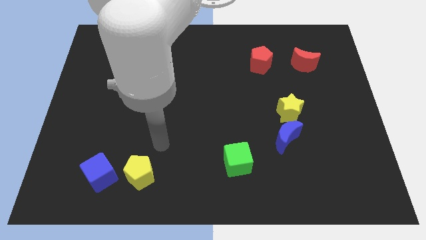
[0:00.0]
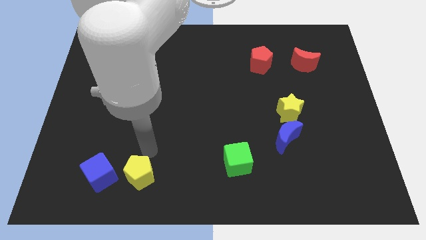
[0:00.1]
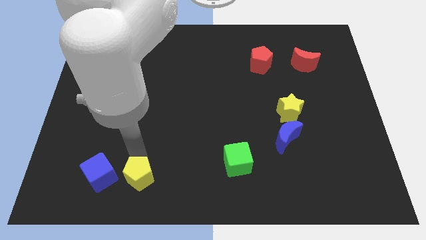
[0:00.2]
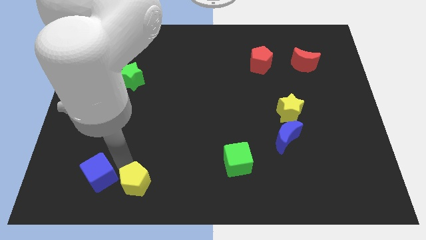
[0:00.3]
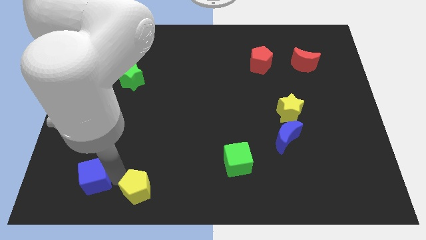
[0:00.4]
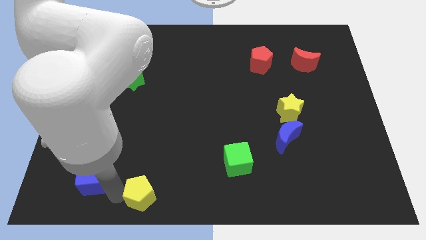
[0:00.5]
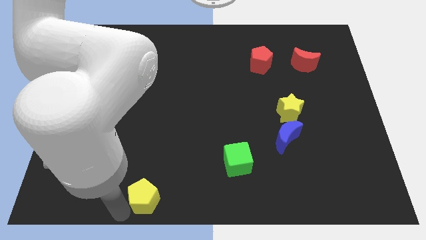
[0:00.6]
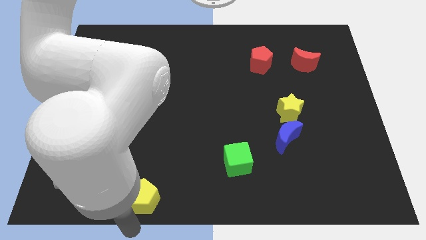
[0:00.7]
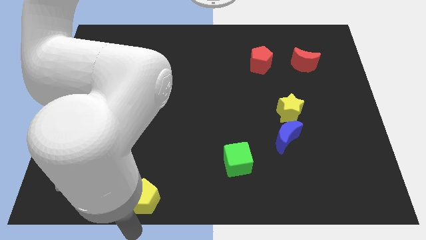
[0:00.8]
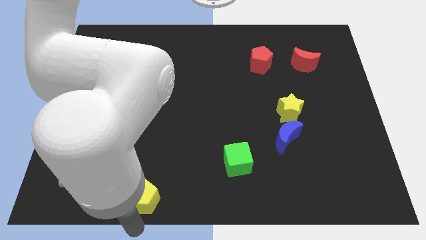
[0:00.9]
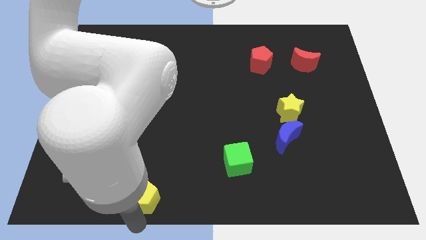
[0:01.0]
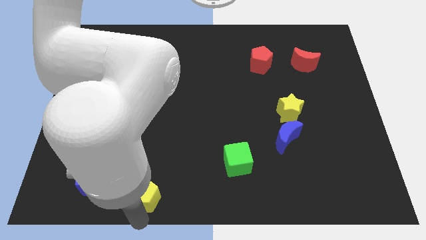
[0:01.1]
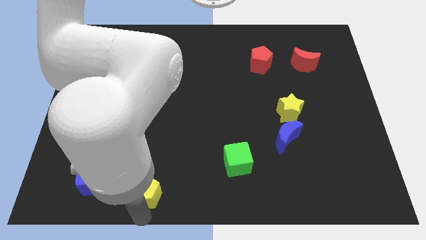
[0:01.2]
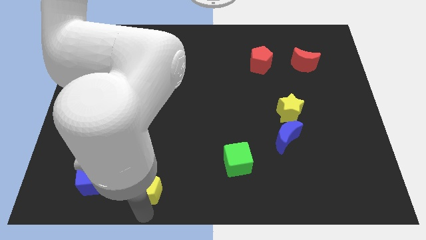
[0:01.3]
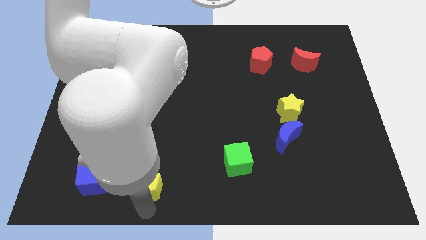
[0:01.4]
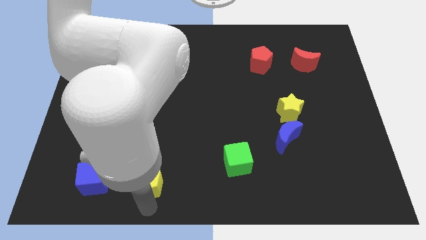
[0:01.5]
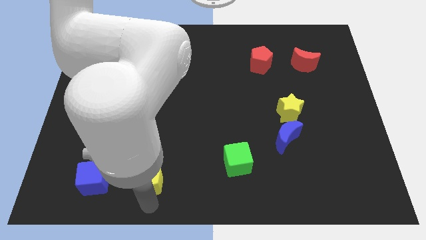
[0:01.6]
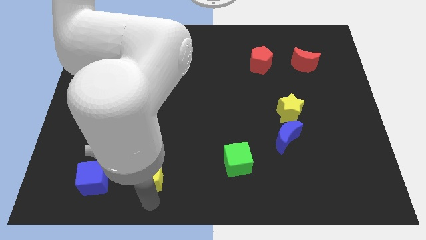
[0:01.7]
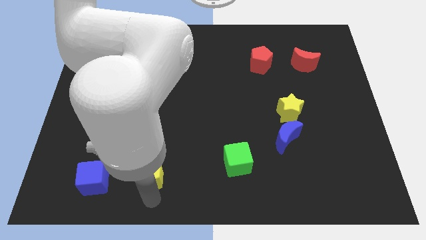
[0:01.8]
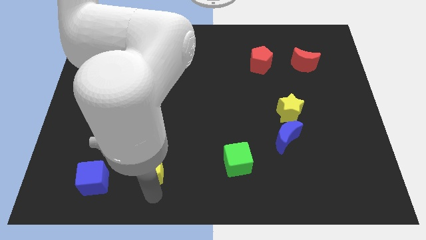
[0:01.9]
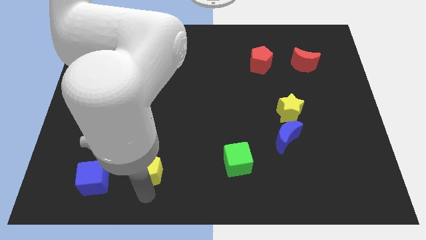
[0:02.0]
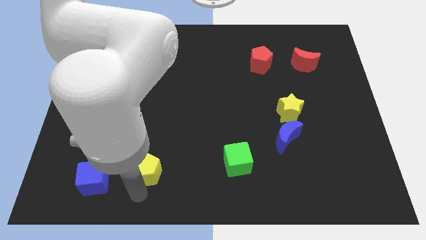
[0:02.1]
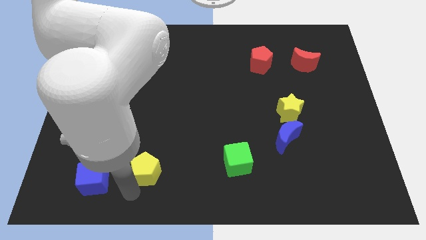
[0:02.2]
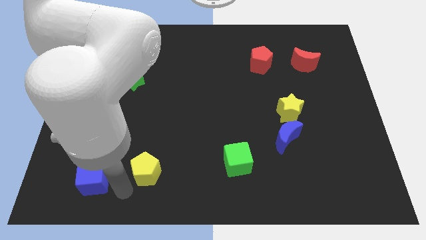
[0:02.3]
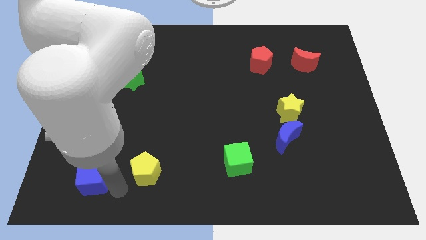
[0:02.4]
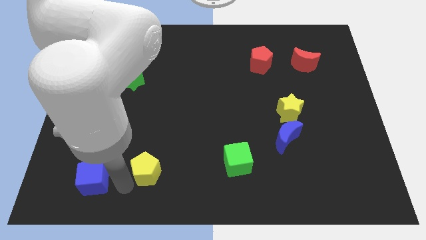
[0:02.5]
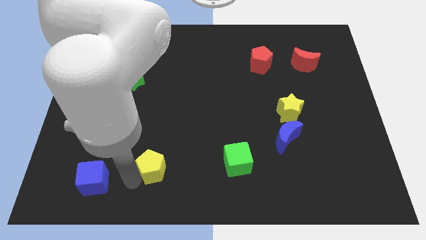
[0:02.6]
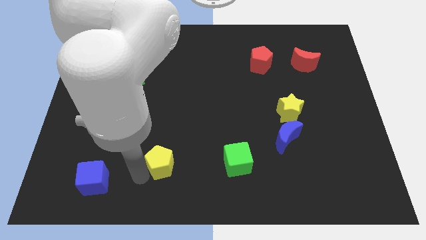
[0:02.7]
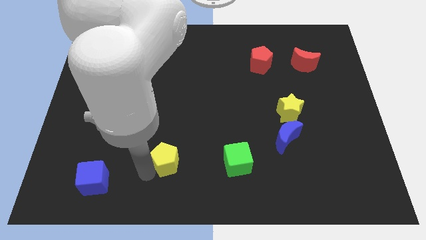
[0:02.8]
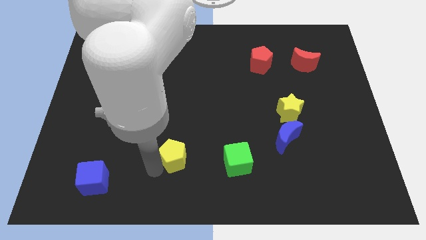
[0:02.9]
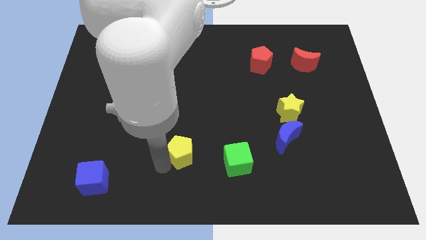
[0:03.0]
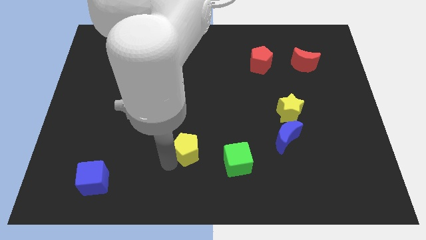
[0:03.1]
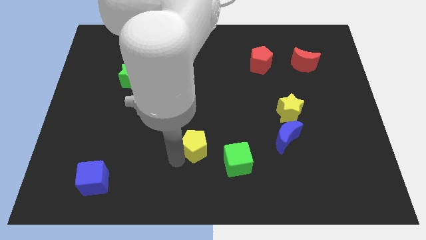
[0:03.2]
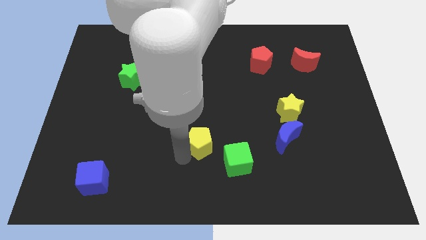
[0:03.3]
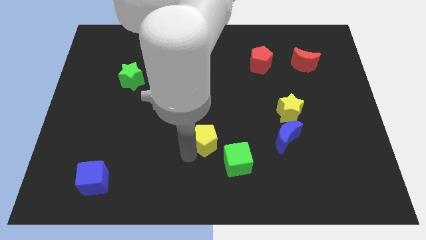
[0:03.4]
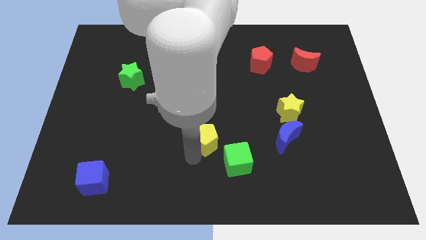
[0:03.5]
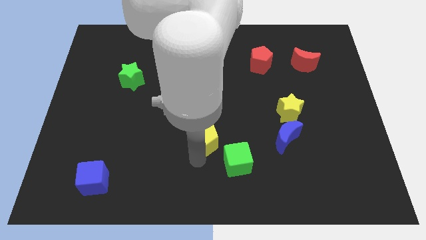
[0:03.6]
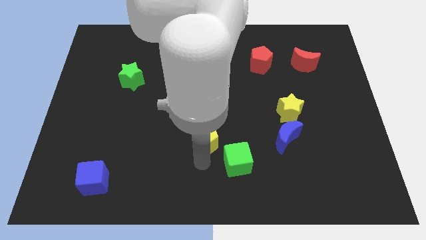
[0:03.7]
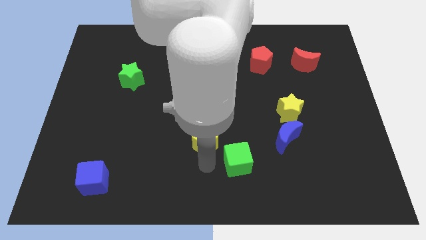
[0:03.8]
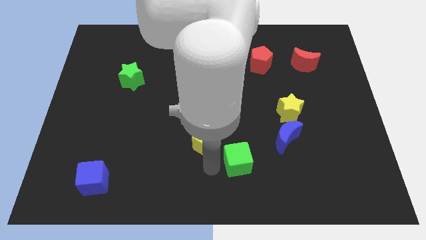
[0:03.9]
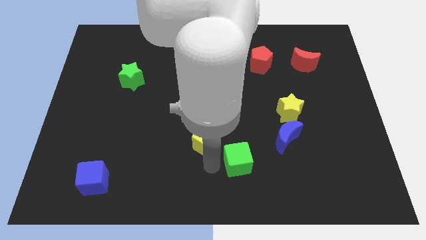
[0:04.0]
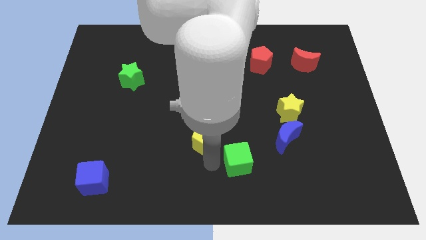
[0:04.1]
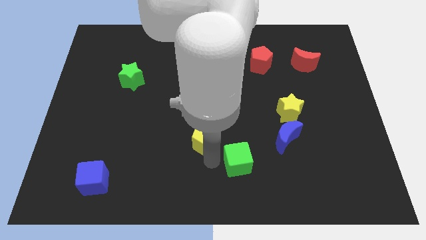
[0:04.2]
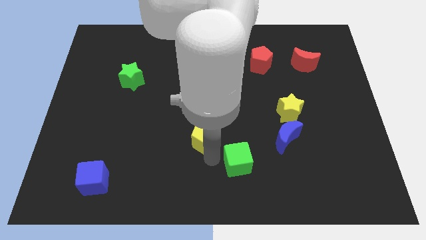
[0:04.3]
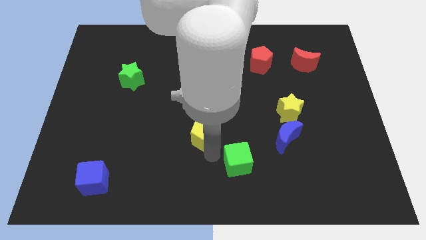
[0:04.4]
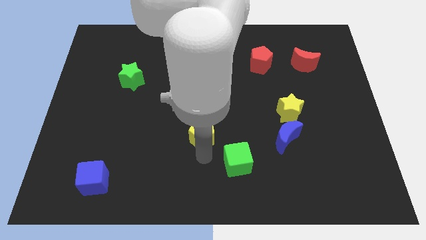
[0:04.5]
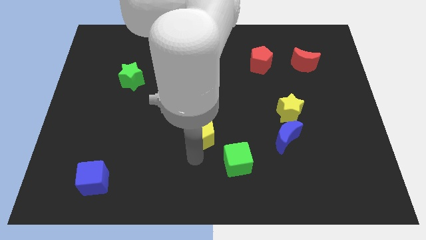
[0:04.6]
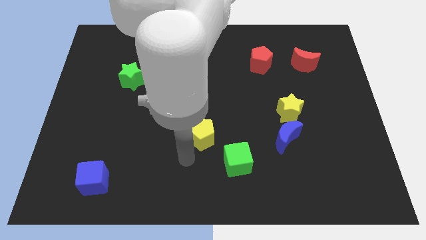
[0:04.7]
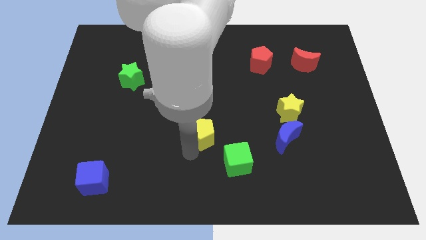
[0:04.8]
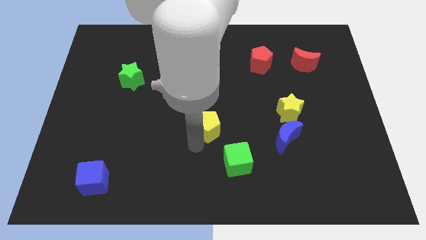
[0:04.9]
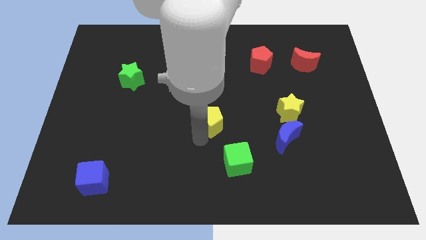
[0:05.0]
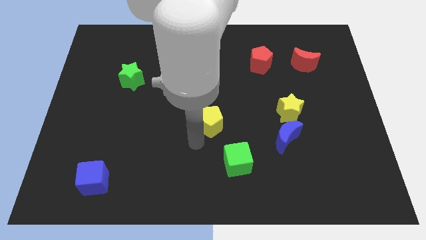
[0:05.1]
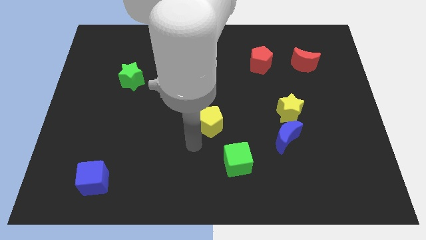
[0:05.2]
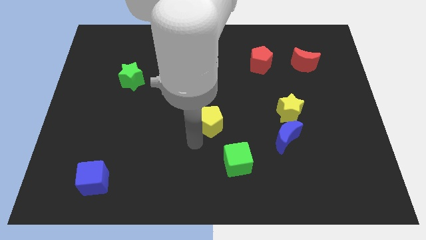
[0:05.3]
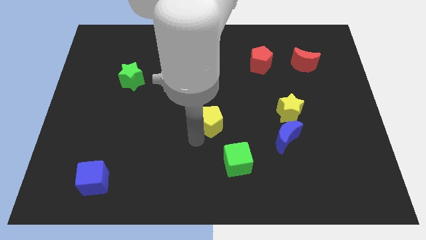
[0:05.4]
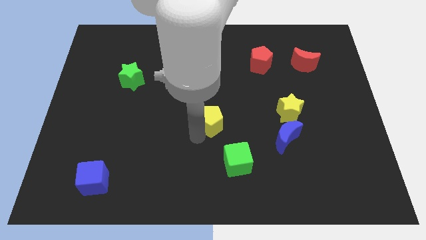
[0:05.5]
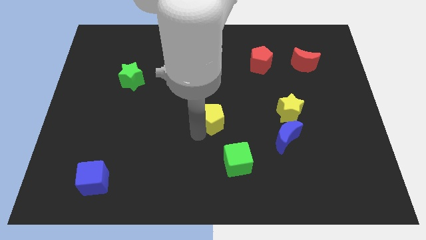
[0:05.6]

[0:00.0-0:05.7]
move the yellow pentagon up and right

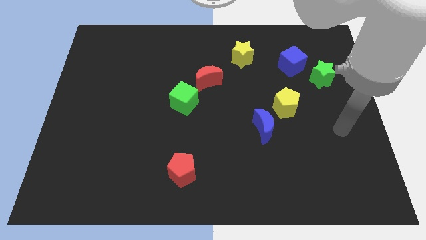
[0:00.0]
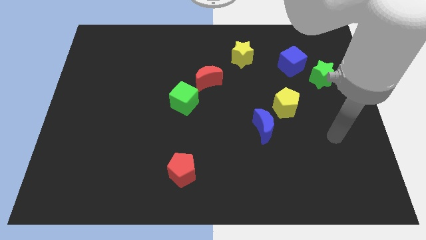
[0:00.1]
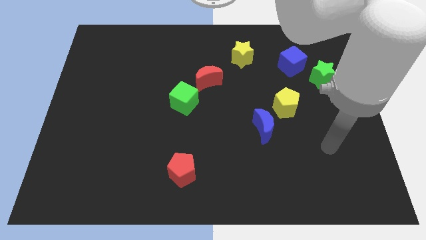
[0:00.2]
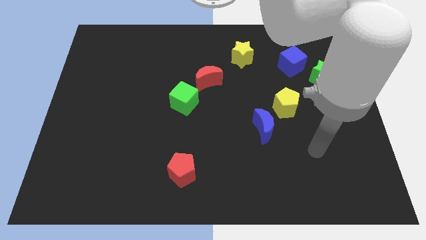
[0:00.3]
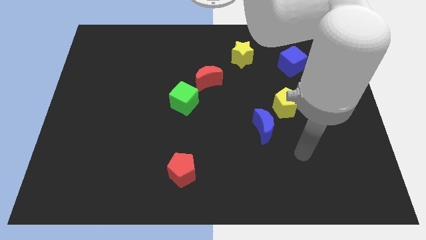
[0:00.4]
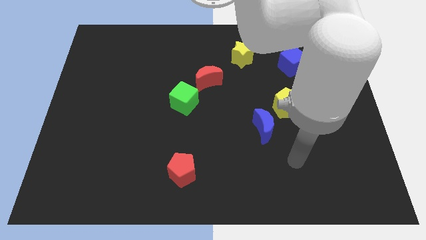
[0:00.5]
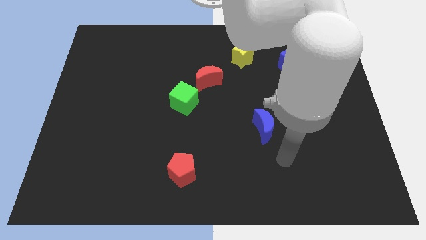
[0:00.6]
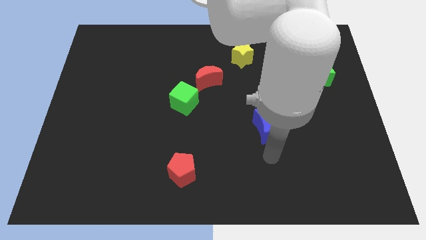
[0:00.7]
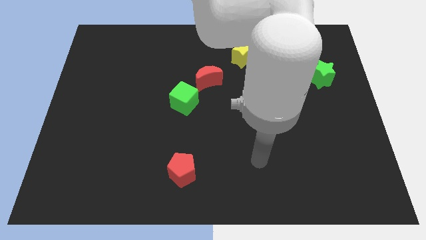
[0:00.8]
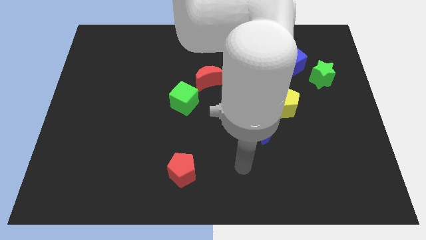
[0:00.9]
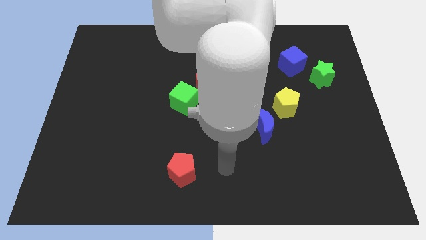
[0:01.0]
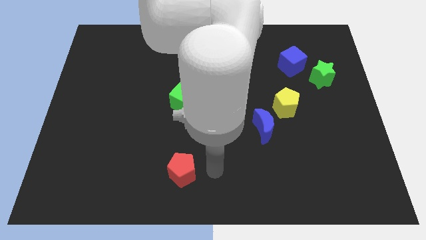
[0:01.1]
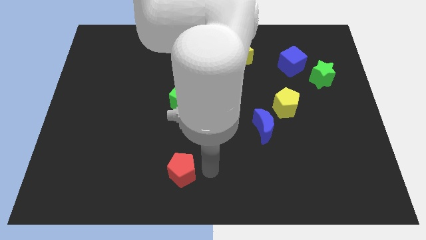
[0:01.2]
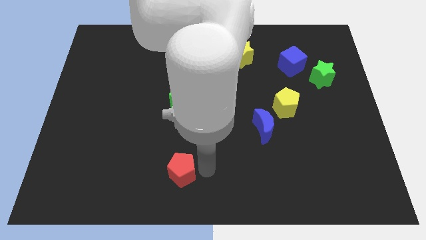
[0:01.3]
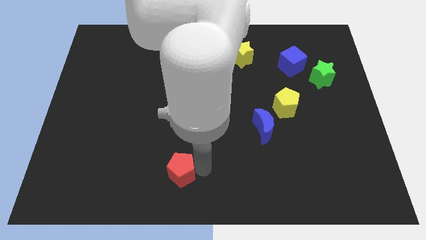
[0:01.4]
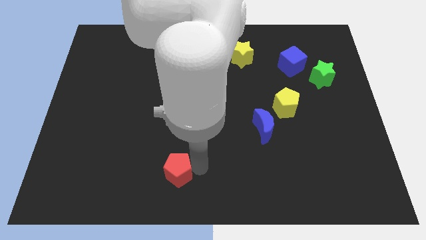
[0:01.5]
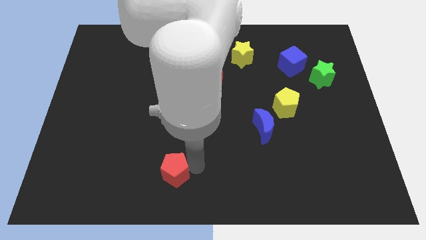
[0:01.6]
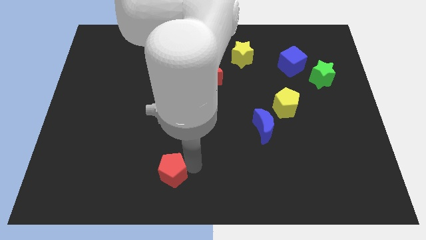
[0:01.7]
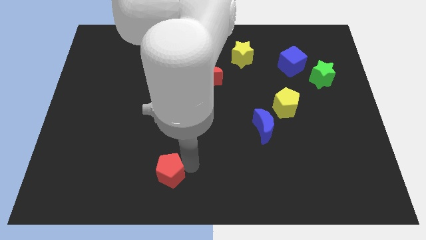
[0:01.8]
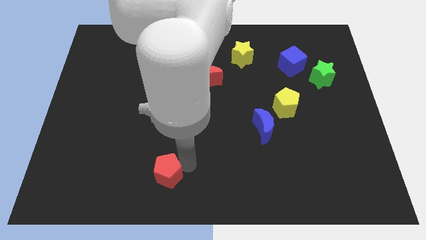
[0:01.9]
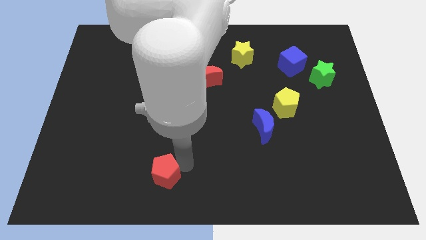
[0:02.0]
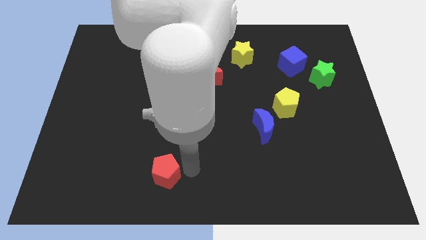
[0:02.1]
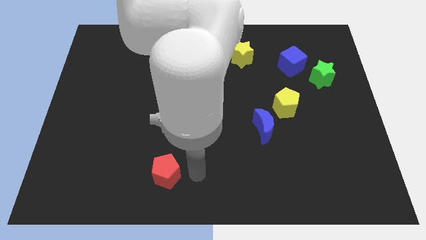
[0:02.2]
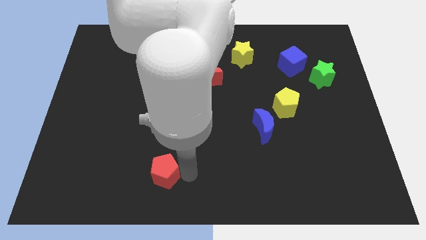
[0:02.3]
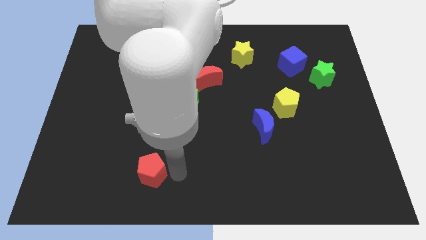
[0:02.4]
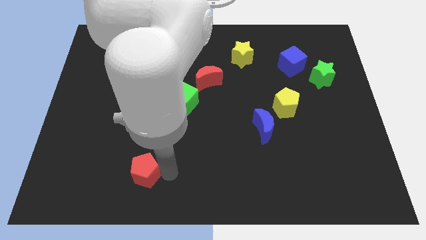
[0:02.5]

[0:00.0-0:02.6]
slide the red pentagon left a little bit
